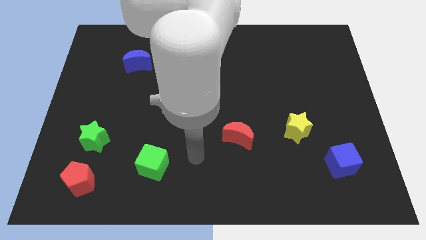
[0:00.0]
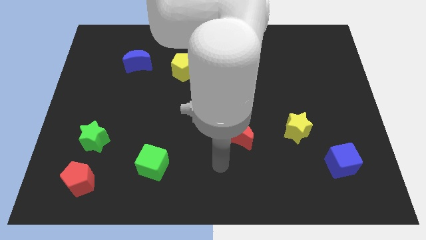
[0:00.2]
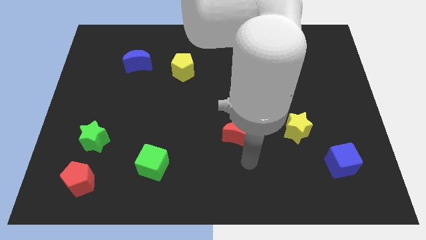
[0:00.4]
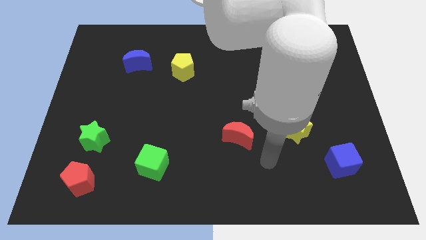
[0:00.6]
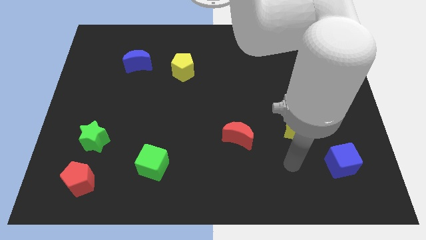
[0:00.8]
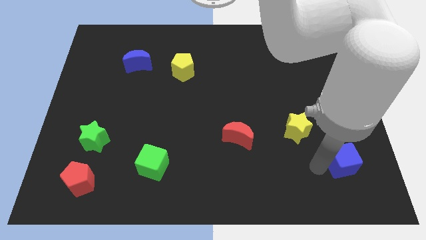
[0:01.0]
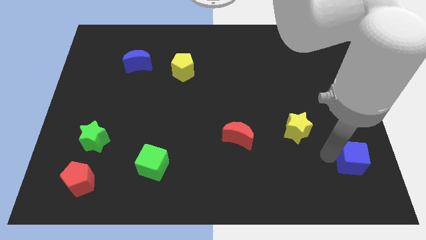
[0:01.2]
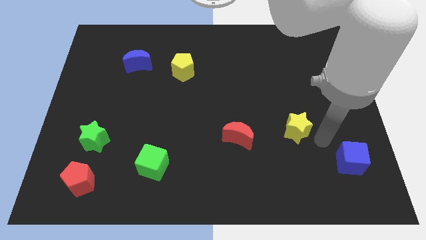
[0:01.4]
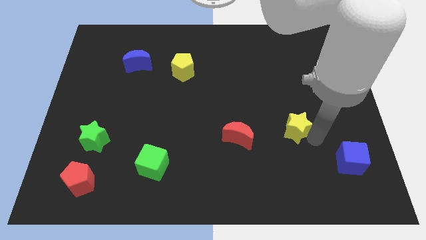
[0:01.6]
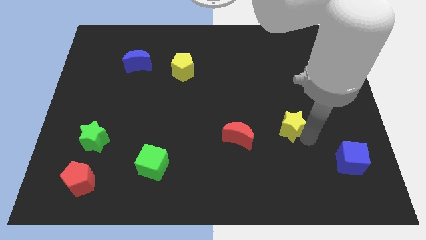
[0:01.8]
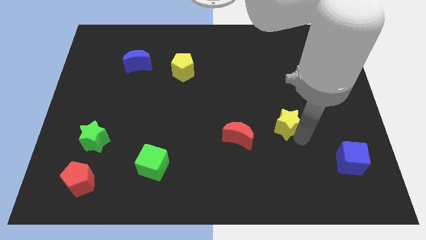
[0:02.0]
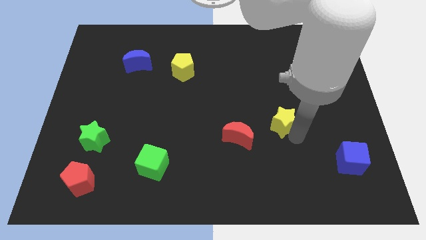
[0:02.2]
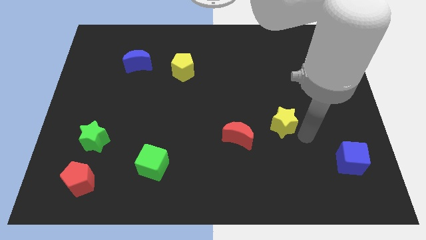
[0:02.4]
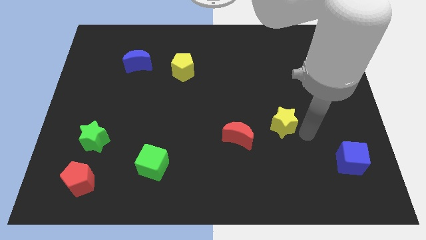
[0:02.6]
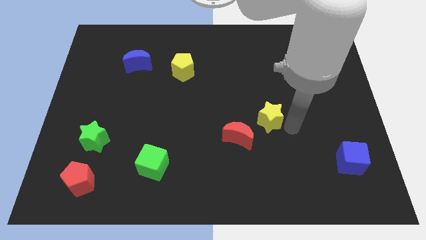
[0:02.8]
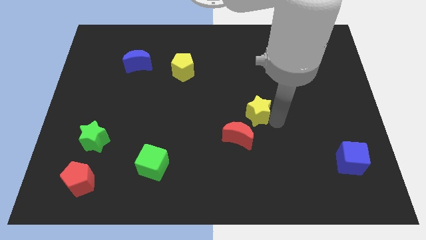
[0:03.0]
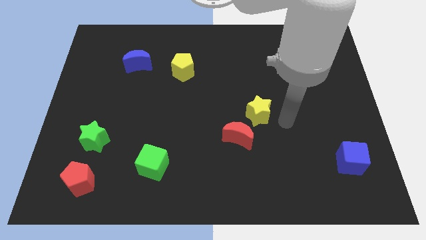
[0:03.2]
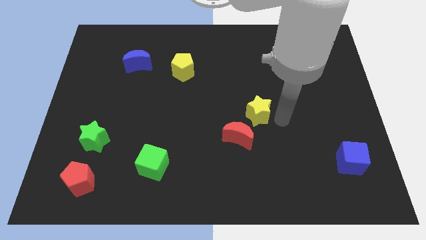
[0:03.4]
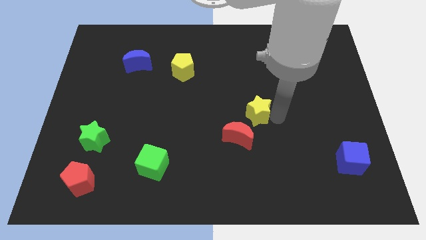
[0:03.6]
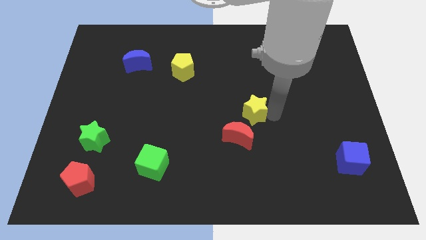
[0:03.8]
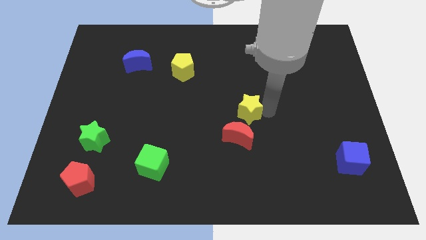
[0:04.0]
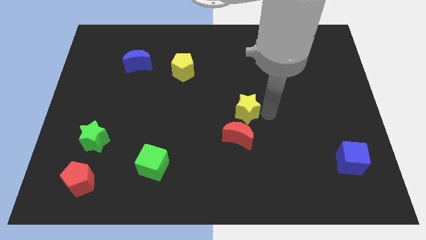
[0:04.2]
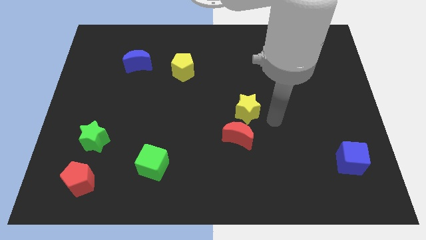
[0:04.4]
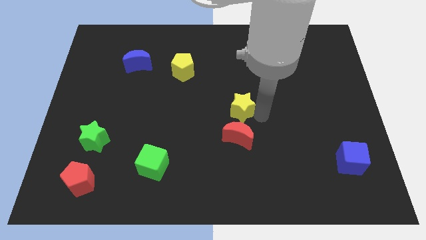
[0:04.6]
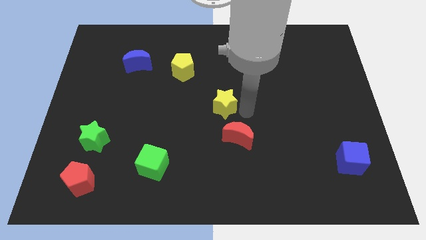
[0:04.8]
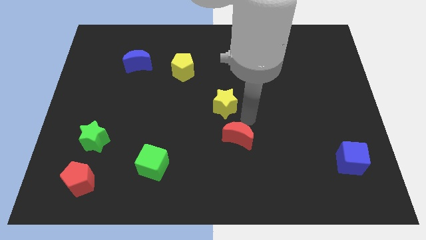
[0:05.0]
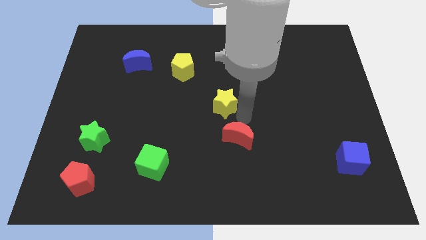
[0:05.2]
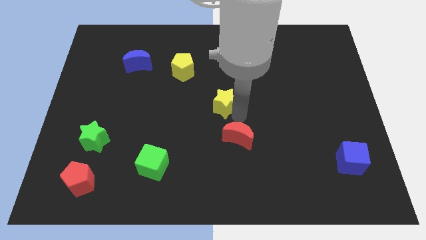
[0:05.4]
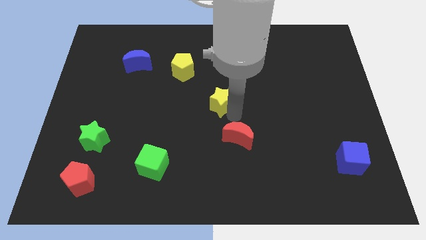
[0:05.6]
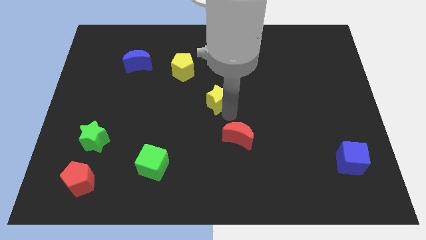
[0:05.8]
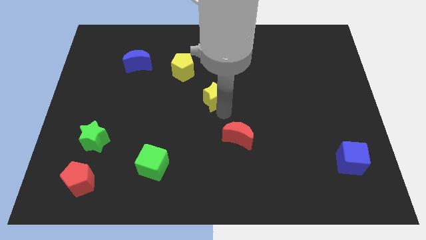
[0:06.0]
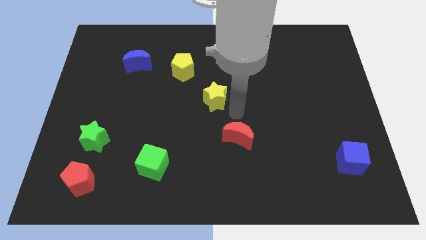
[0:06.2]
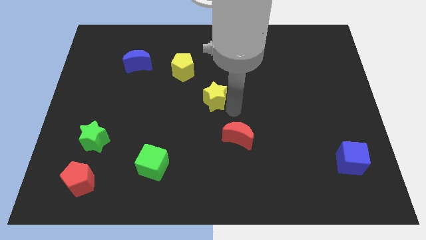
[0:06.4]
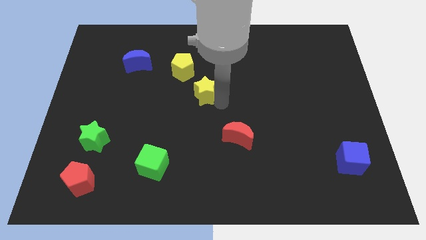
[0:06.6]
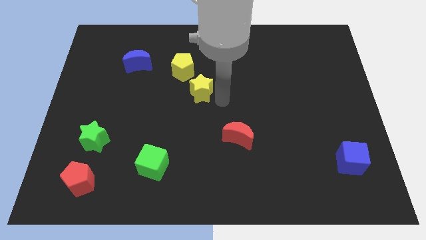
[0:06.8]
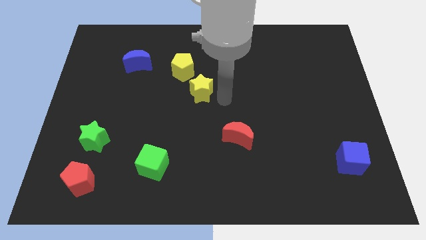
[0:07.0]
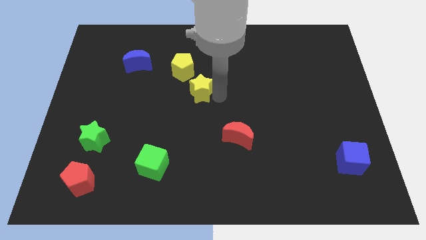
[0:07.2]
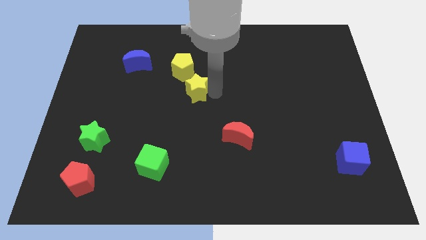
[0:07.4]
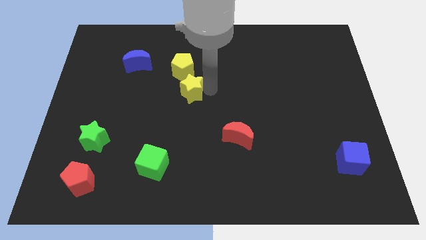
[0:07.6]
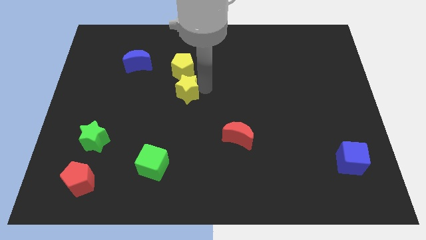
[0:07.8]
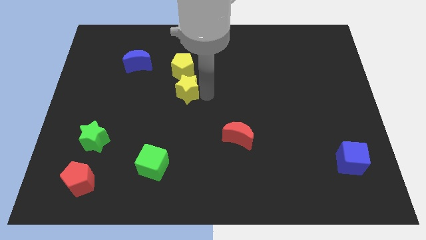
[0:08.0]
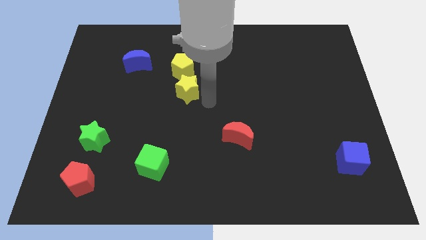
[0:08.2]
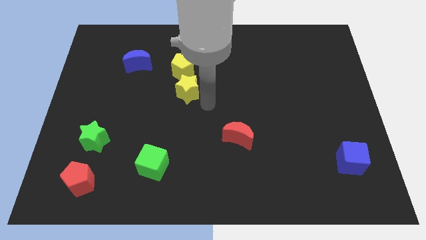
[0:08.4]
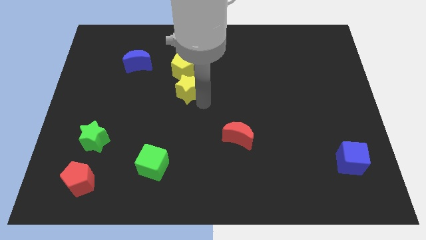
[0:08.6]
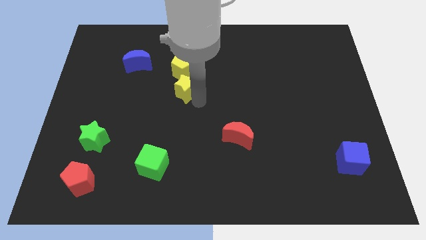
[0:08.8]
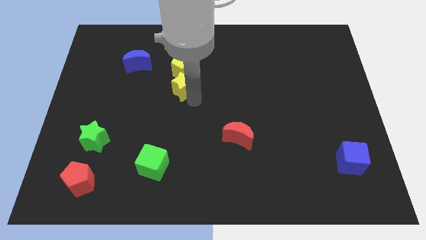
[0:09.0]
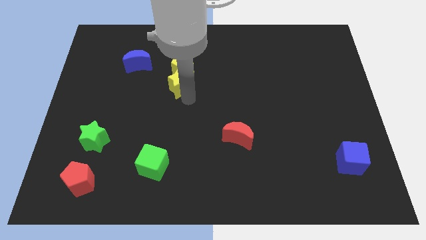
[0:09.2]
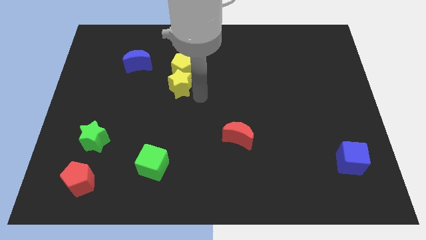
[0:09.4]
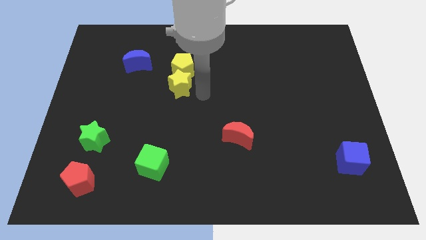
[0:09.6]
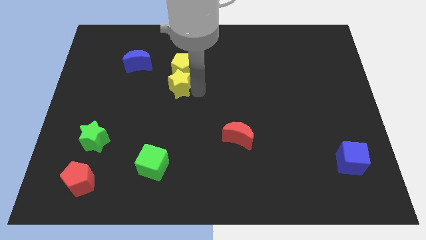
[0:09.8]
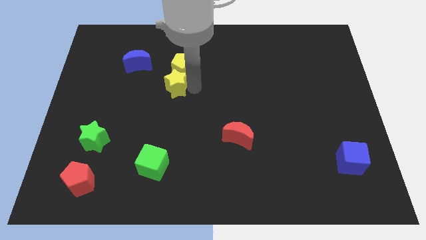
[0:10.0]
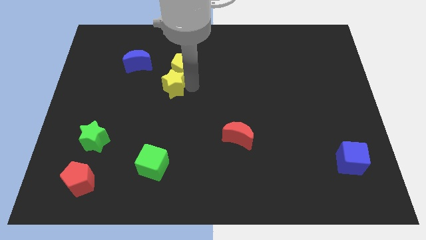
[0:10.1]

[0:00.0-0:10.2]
put the yellow star to the bottom right of the blue moon

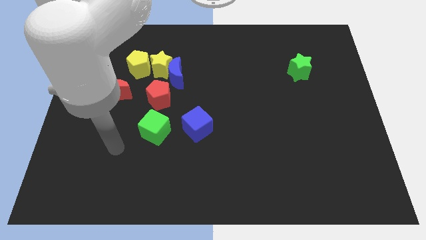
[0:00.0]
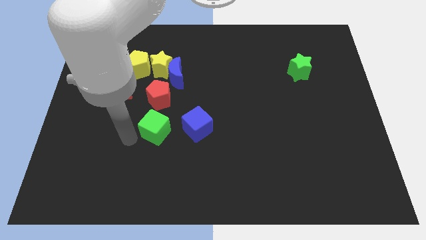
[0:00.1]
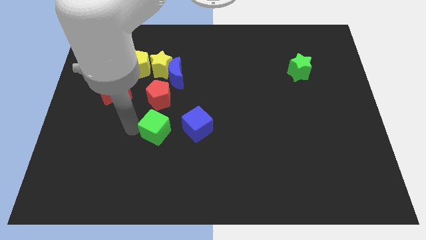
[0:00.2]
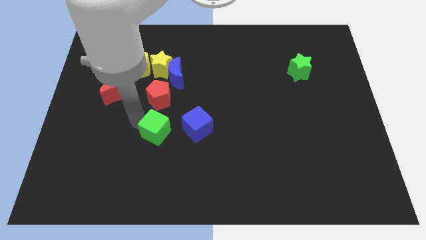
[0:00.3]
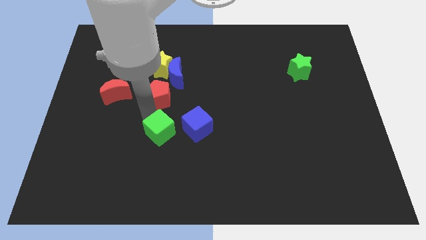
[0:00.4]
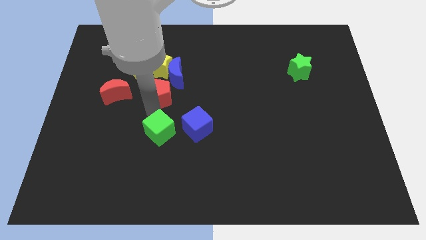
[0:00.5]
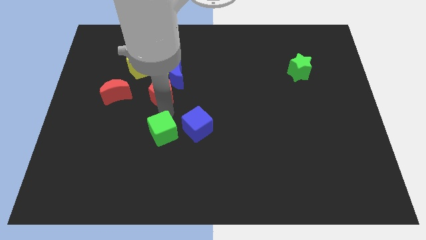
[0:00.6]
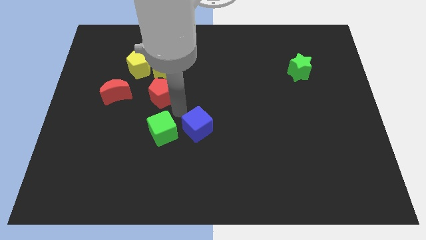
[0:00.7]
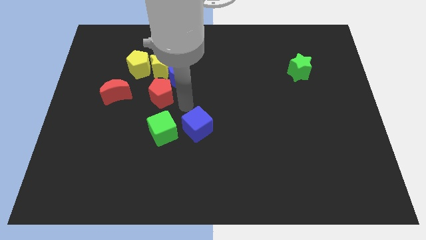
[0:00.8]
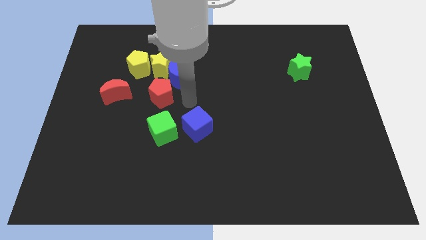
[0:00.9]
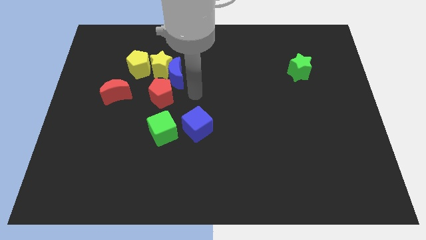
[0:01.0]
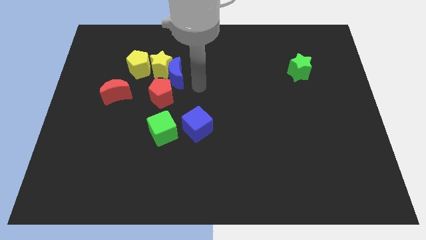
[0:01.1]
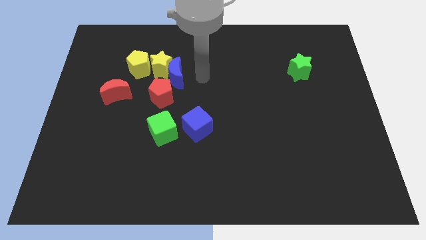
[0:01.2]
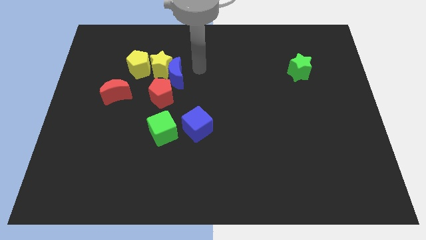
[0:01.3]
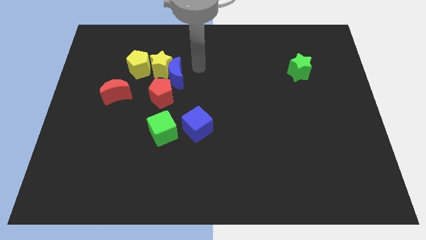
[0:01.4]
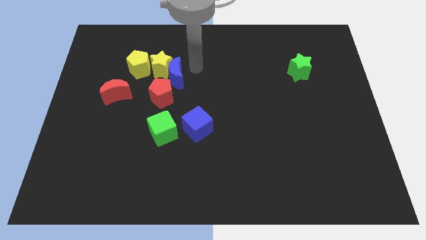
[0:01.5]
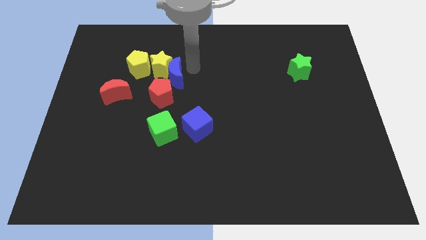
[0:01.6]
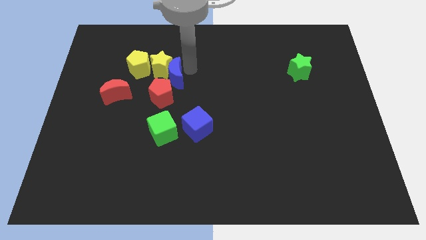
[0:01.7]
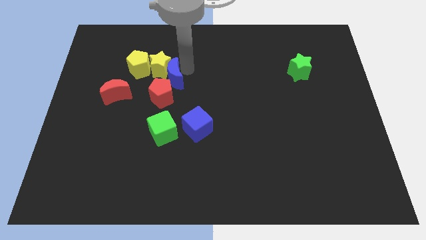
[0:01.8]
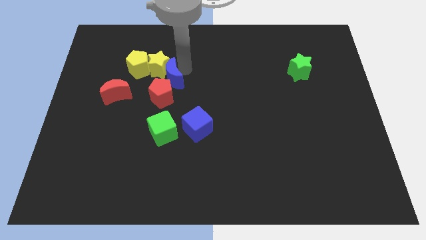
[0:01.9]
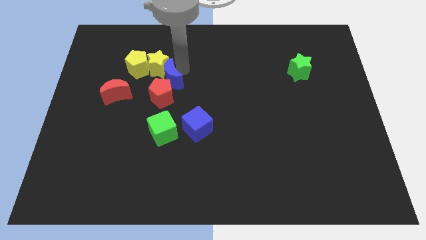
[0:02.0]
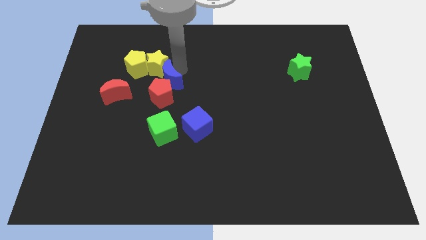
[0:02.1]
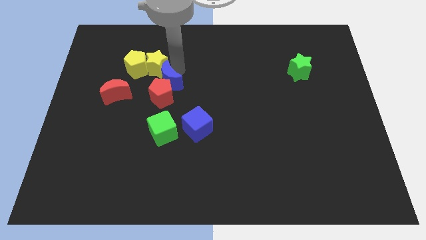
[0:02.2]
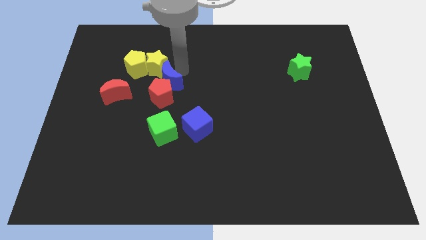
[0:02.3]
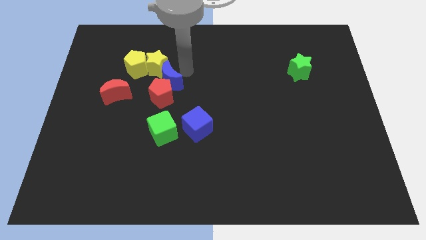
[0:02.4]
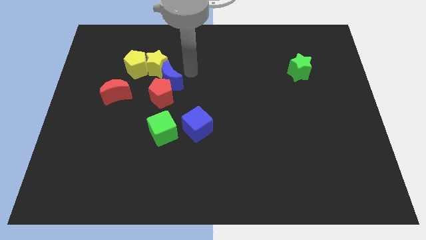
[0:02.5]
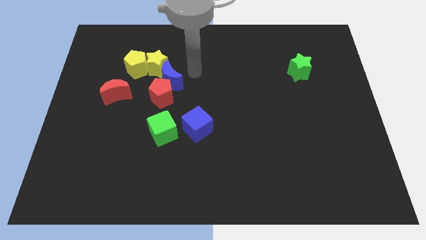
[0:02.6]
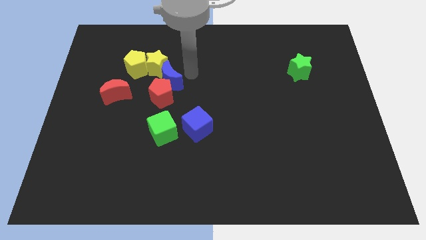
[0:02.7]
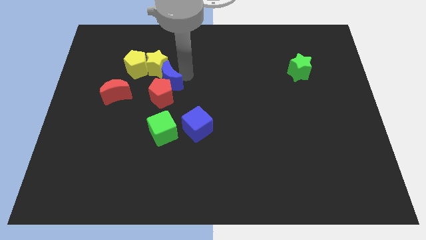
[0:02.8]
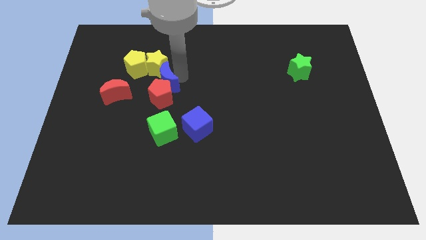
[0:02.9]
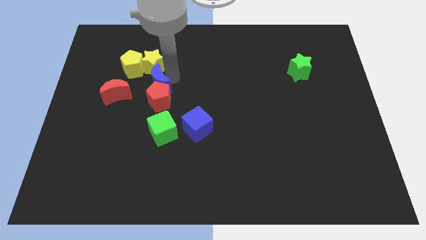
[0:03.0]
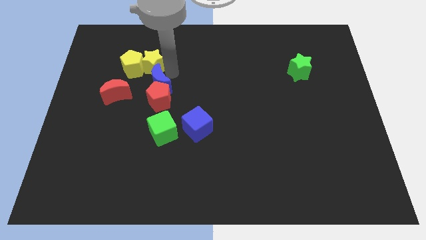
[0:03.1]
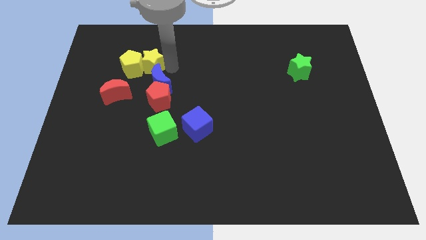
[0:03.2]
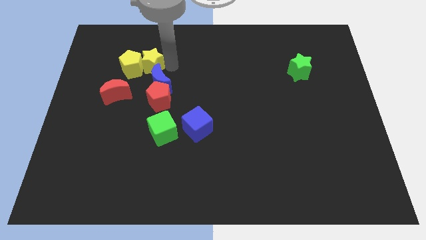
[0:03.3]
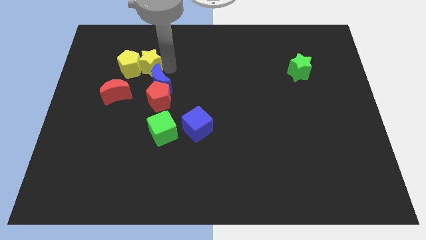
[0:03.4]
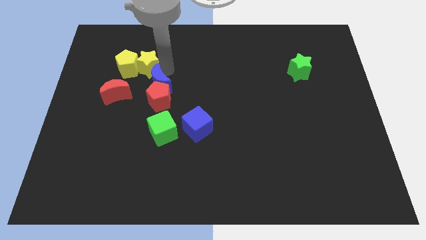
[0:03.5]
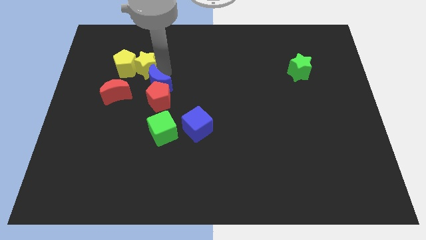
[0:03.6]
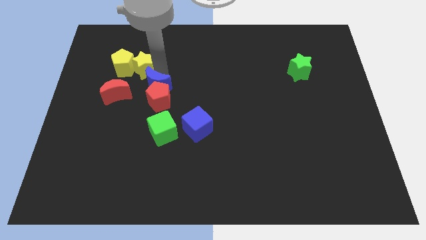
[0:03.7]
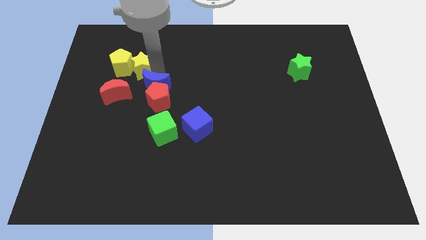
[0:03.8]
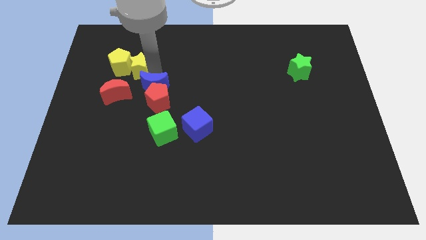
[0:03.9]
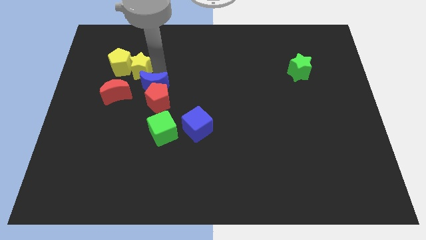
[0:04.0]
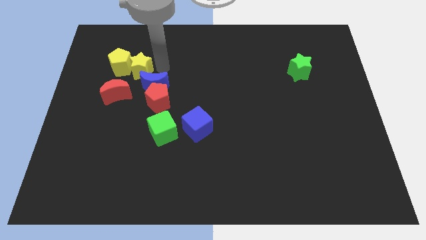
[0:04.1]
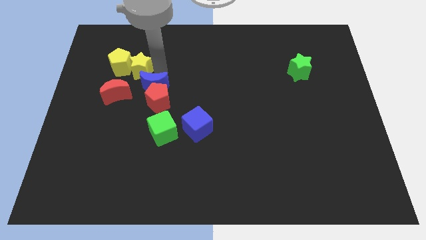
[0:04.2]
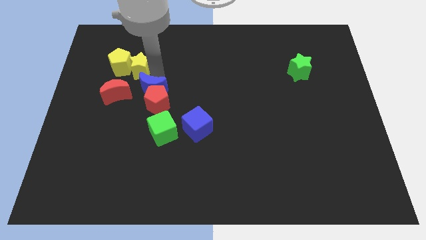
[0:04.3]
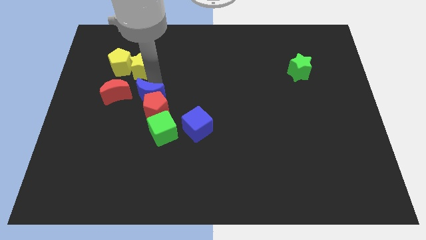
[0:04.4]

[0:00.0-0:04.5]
put the blue moon diagonally up and to the left of the green cube
